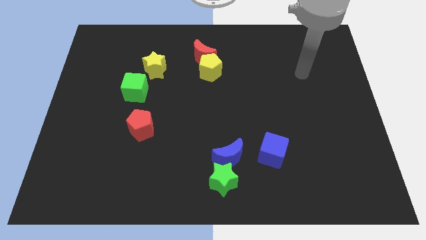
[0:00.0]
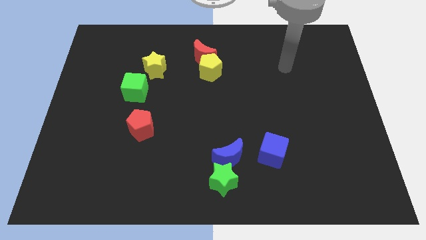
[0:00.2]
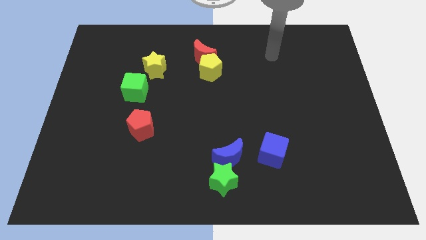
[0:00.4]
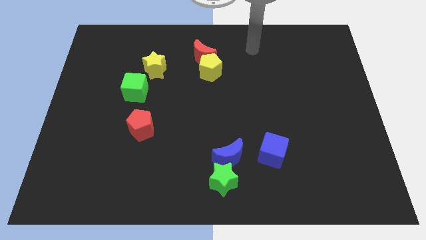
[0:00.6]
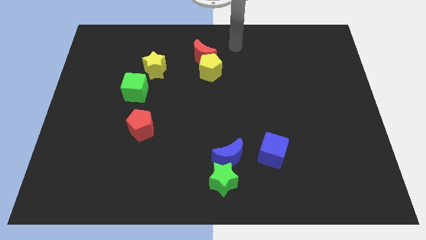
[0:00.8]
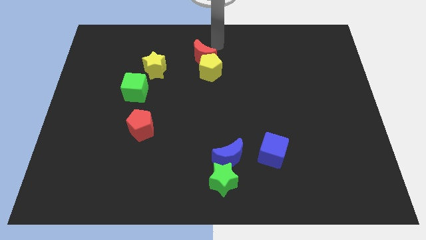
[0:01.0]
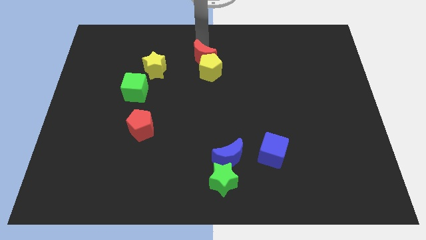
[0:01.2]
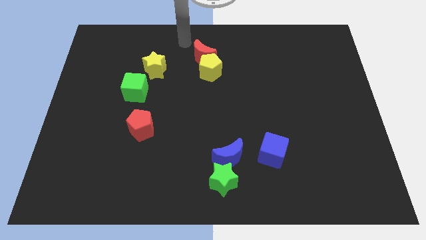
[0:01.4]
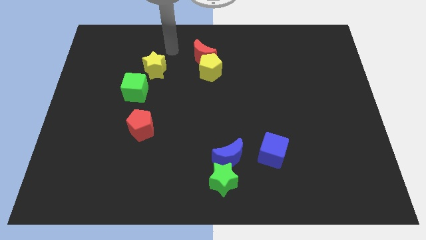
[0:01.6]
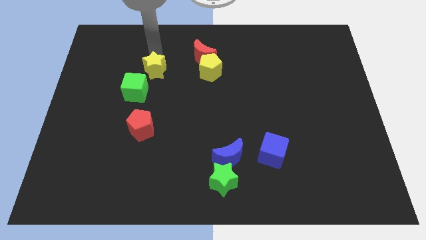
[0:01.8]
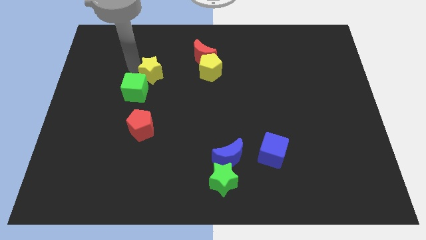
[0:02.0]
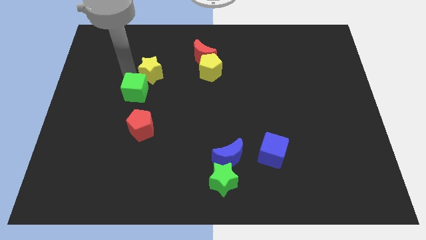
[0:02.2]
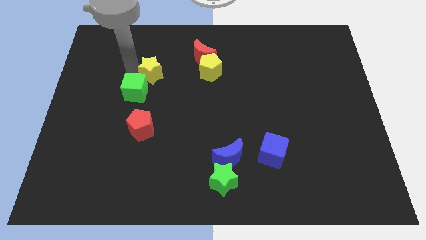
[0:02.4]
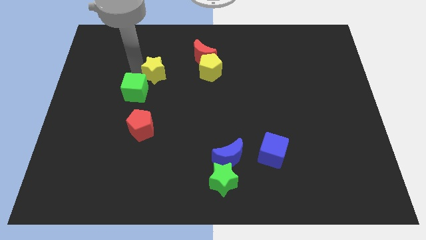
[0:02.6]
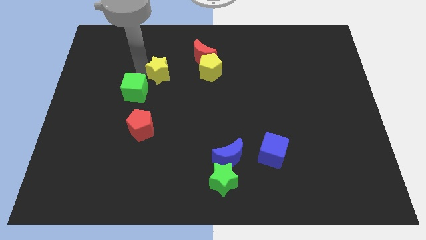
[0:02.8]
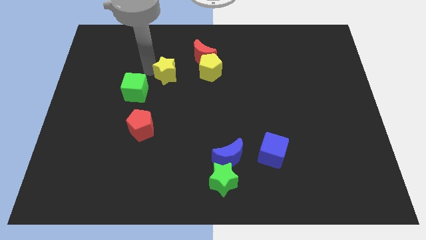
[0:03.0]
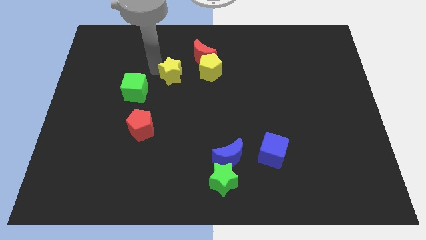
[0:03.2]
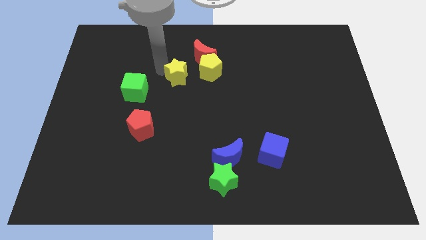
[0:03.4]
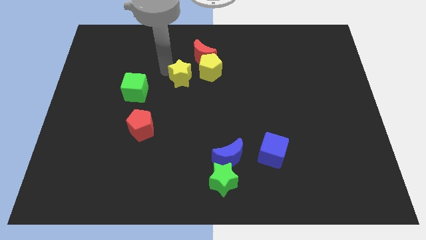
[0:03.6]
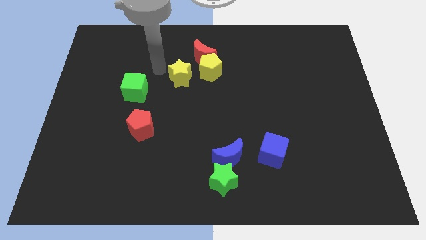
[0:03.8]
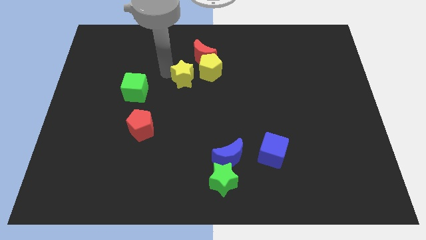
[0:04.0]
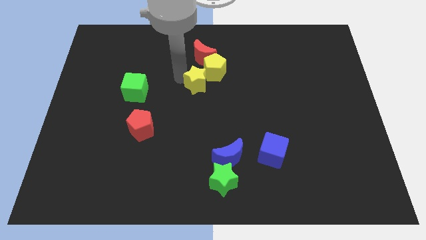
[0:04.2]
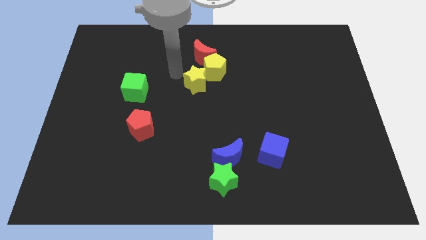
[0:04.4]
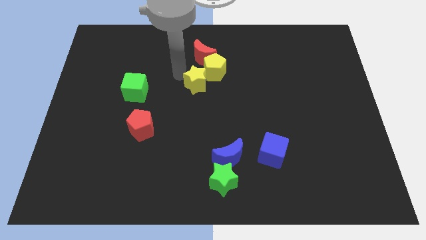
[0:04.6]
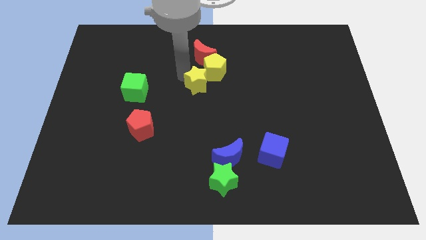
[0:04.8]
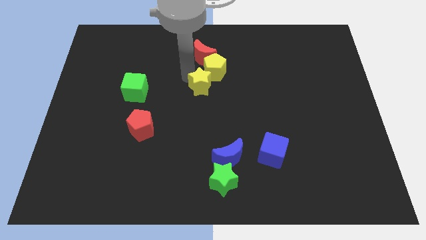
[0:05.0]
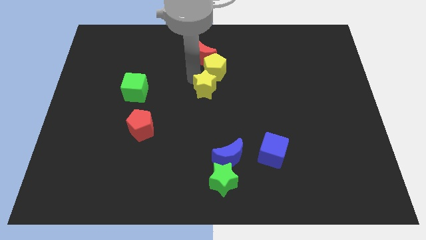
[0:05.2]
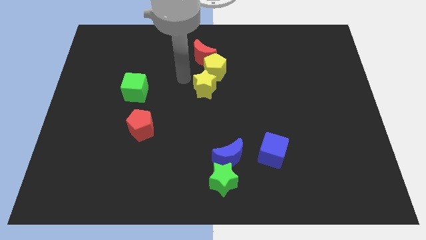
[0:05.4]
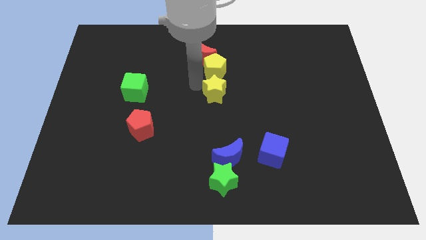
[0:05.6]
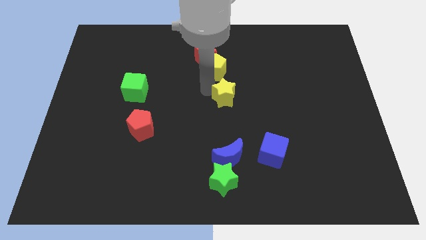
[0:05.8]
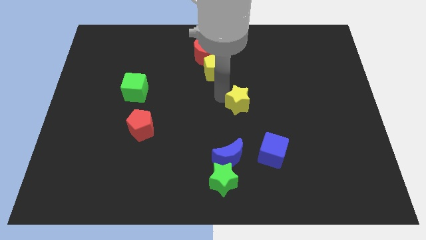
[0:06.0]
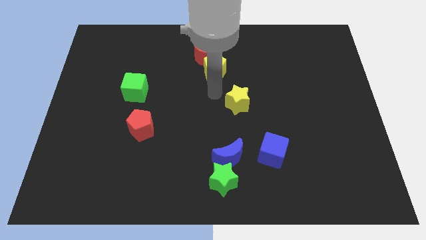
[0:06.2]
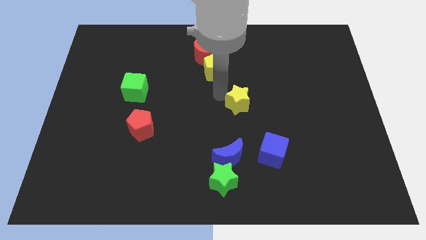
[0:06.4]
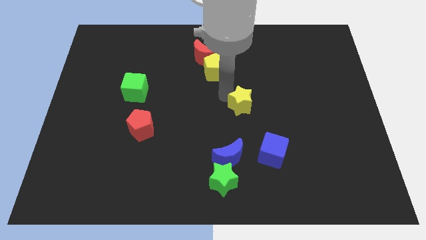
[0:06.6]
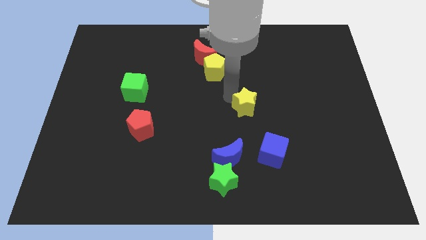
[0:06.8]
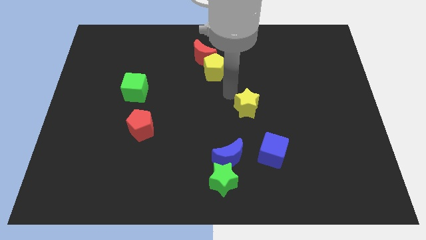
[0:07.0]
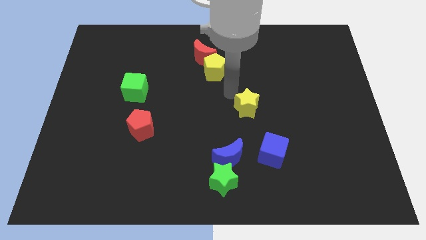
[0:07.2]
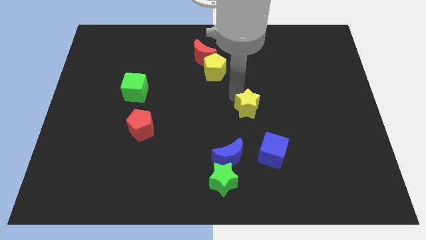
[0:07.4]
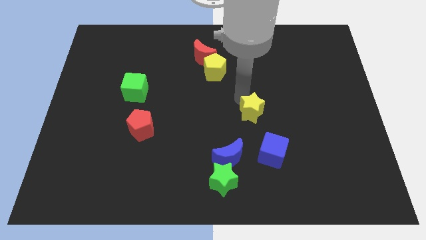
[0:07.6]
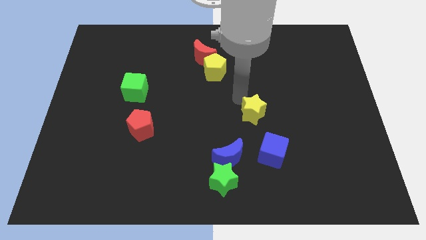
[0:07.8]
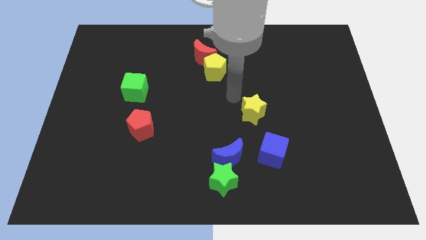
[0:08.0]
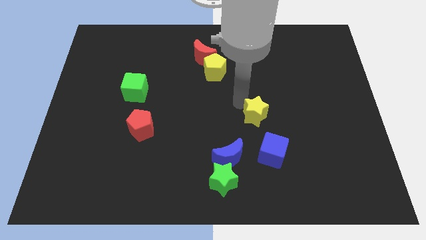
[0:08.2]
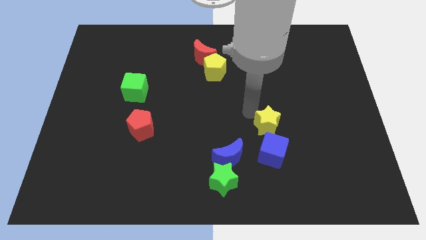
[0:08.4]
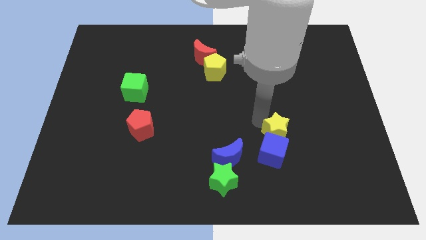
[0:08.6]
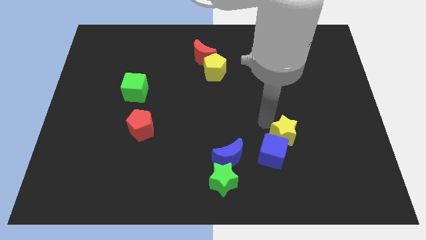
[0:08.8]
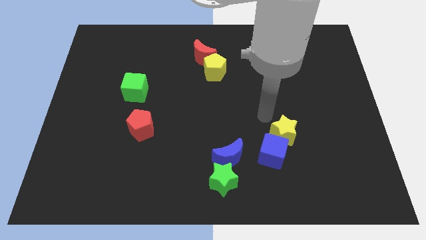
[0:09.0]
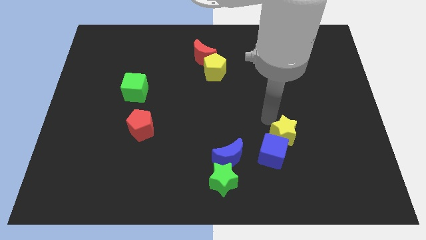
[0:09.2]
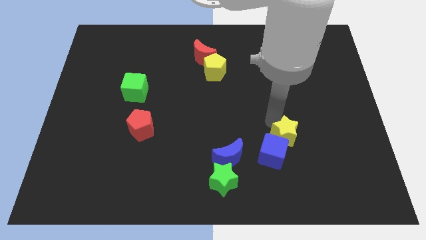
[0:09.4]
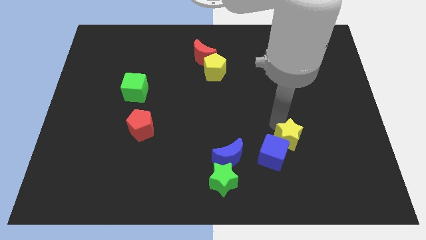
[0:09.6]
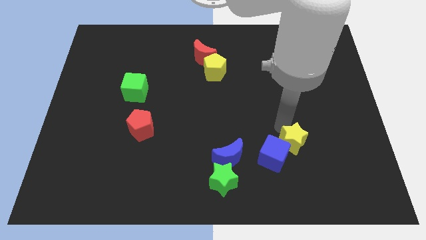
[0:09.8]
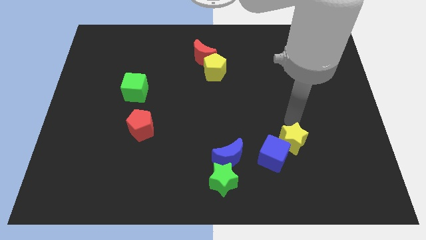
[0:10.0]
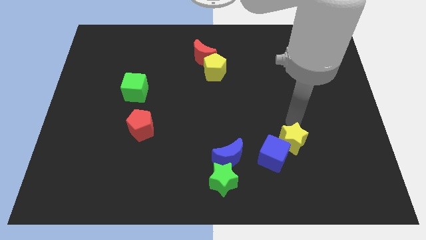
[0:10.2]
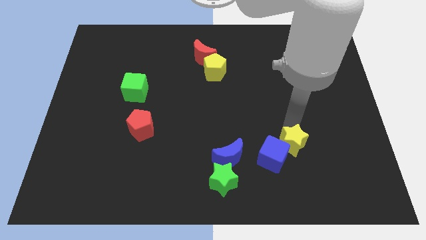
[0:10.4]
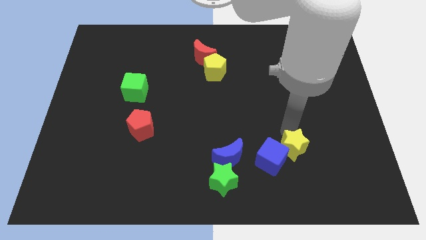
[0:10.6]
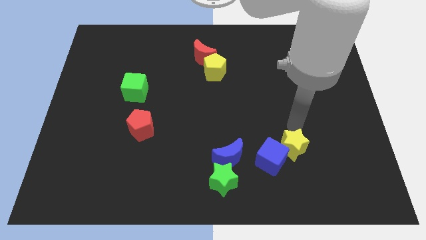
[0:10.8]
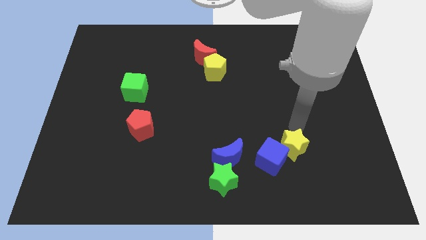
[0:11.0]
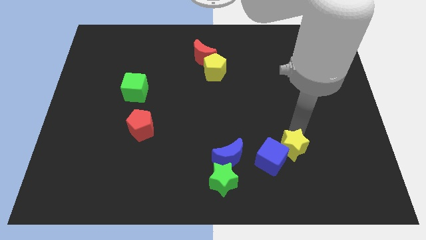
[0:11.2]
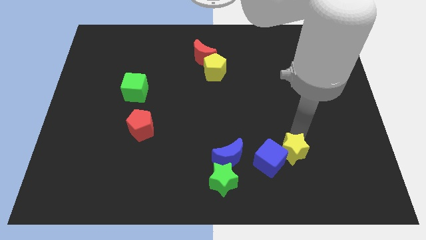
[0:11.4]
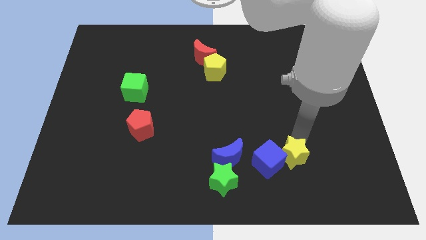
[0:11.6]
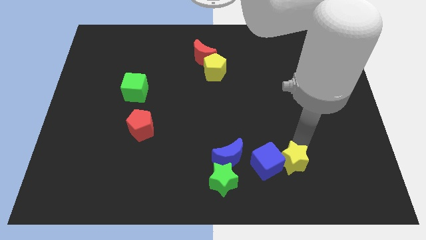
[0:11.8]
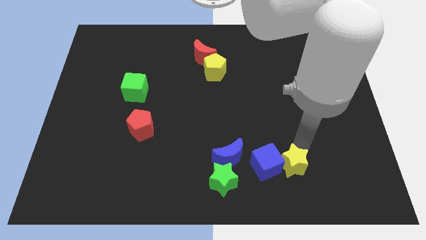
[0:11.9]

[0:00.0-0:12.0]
push the yellow star to the right side of the green star

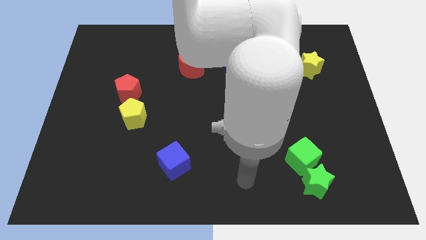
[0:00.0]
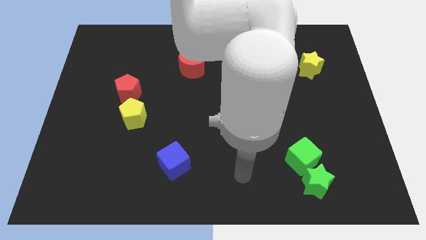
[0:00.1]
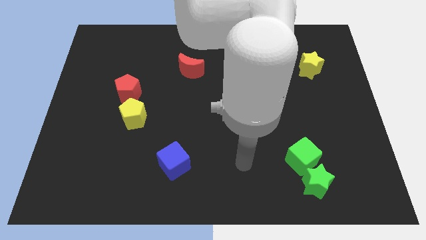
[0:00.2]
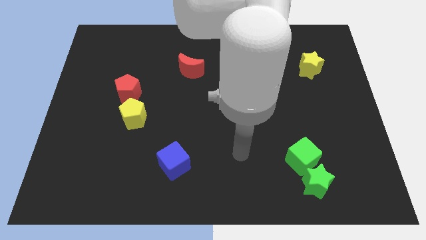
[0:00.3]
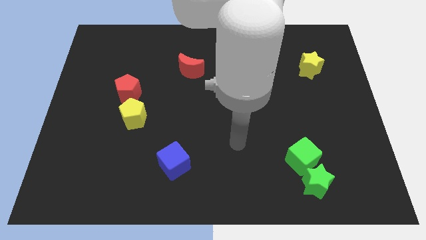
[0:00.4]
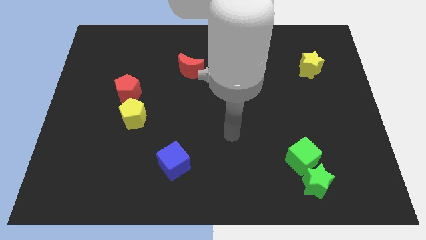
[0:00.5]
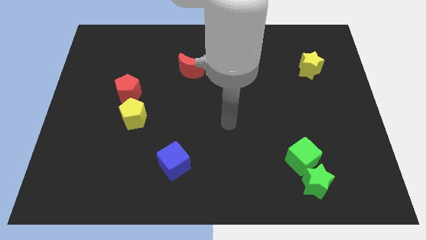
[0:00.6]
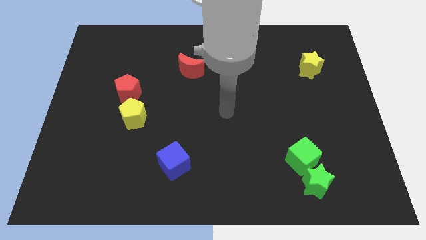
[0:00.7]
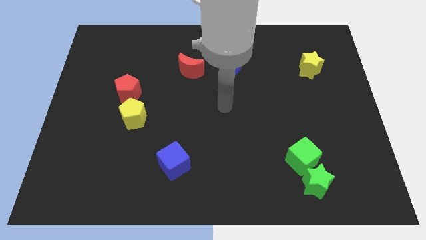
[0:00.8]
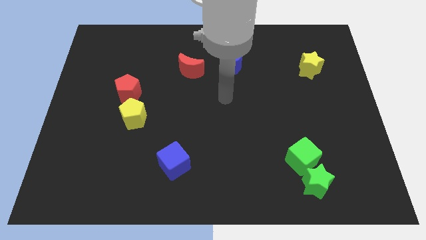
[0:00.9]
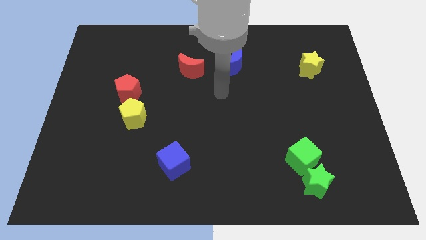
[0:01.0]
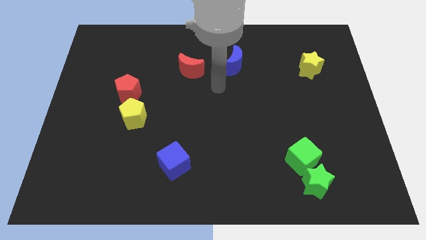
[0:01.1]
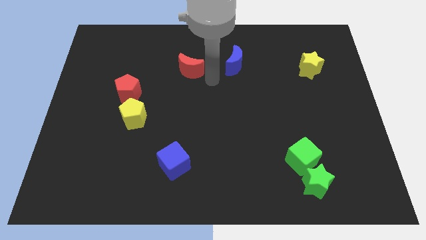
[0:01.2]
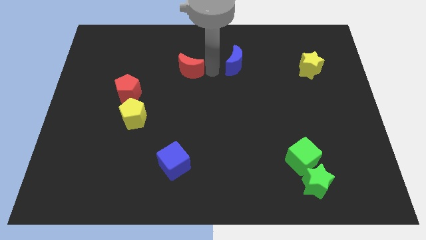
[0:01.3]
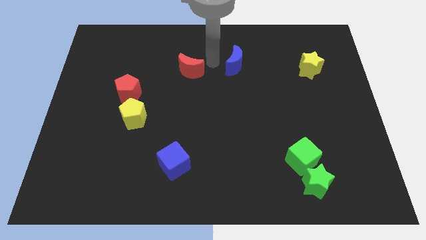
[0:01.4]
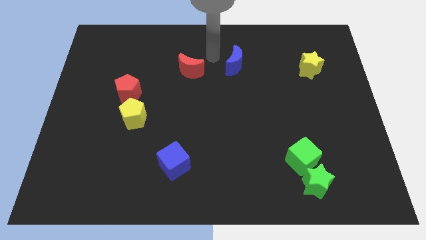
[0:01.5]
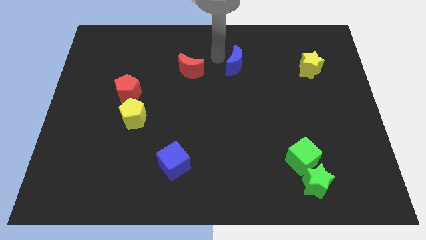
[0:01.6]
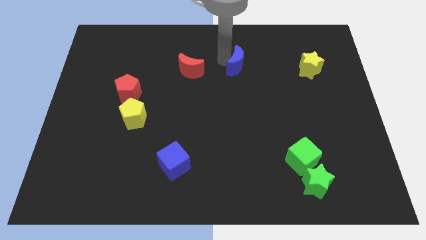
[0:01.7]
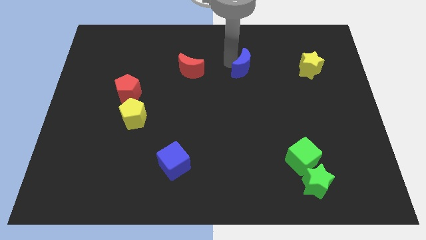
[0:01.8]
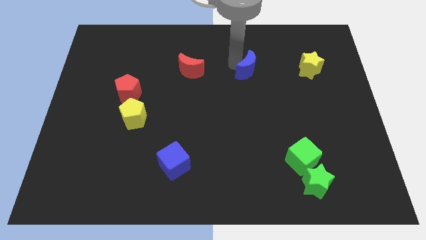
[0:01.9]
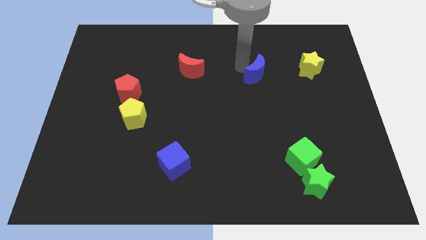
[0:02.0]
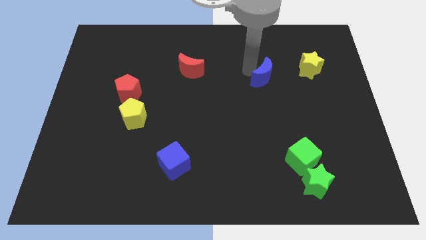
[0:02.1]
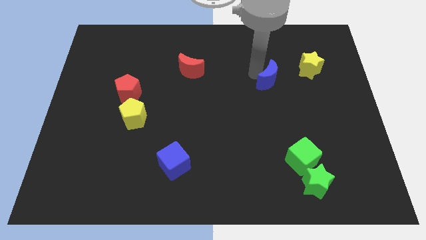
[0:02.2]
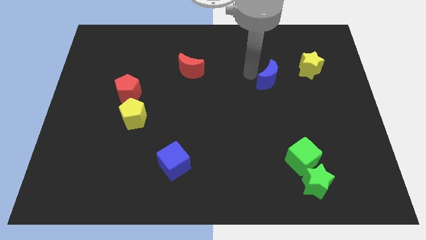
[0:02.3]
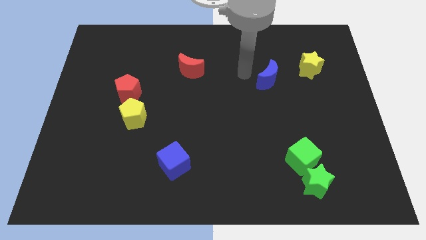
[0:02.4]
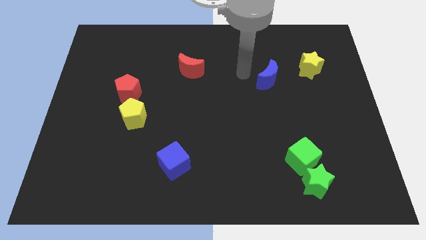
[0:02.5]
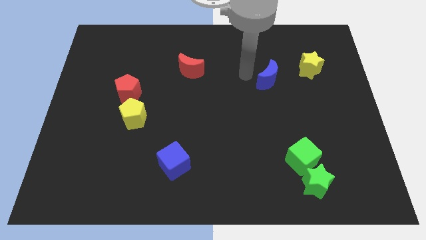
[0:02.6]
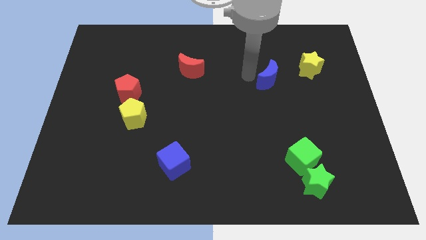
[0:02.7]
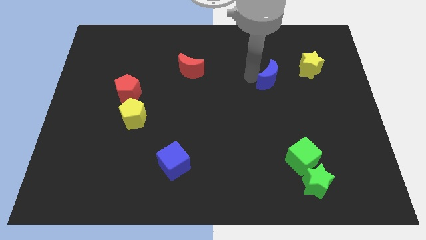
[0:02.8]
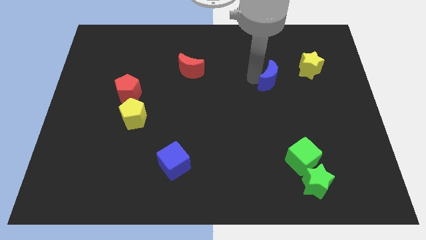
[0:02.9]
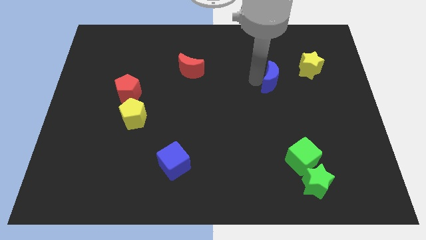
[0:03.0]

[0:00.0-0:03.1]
push the blue moon diagonally down and to the left of the yellow star
